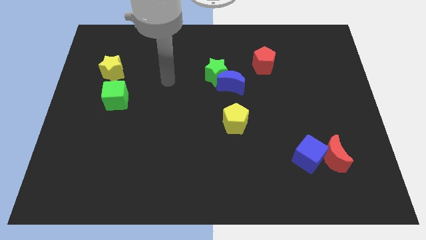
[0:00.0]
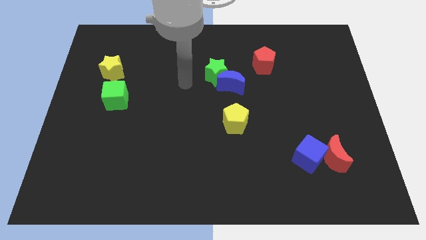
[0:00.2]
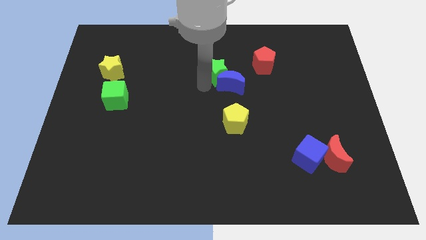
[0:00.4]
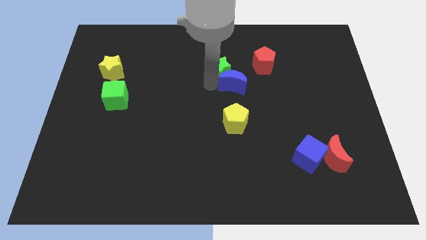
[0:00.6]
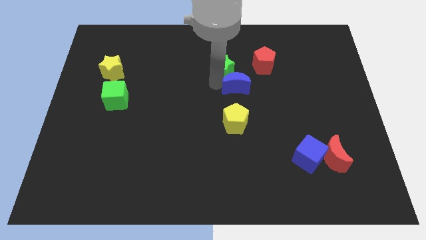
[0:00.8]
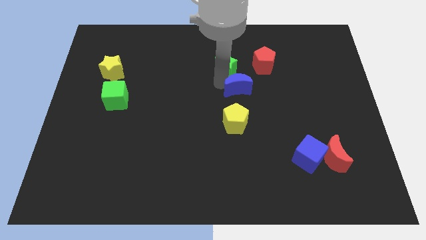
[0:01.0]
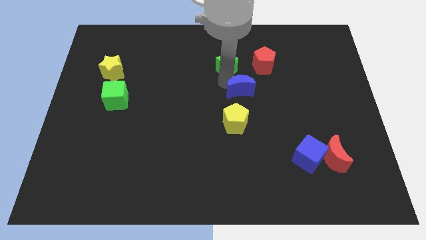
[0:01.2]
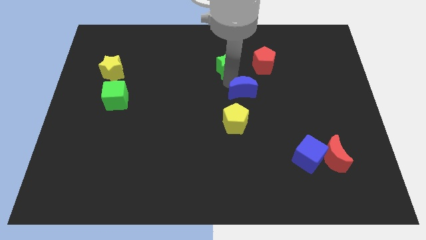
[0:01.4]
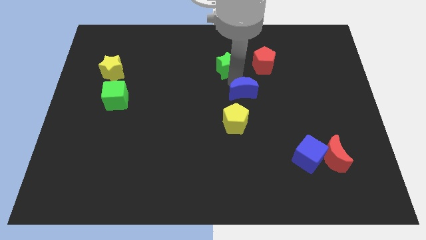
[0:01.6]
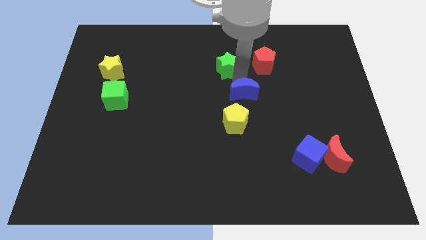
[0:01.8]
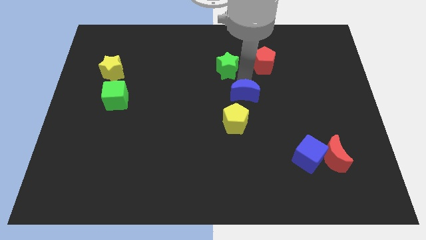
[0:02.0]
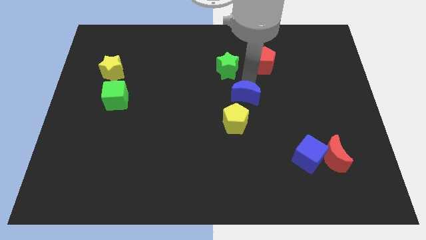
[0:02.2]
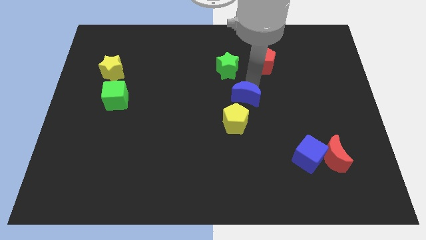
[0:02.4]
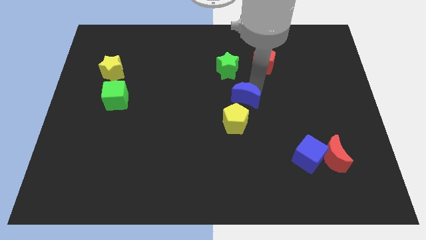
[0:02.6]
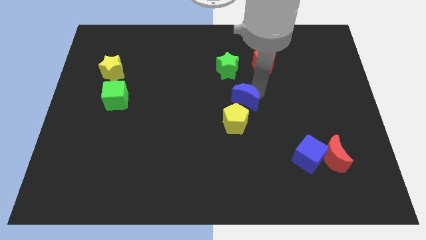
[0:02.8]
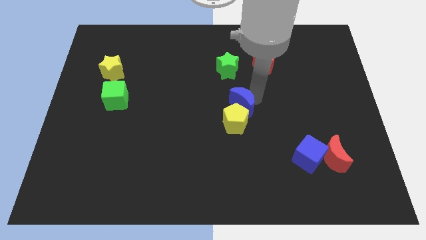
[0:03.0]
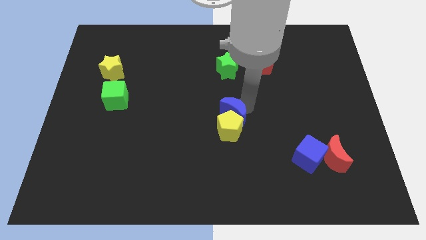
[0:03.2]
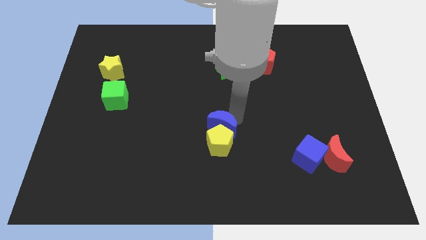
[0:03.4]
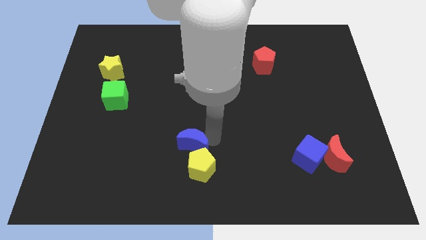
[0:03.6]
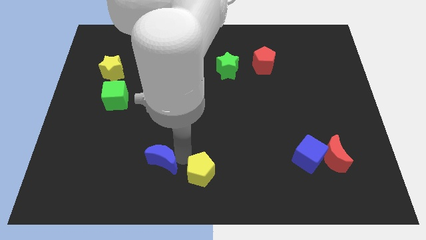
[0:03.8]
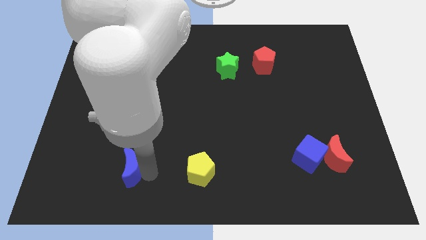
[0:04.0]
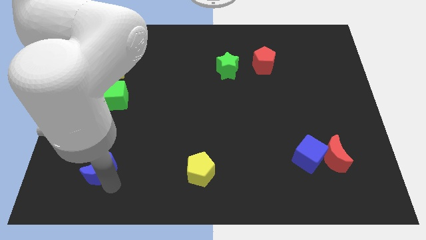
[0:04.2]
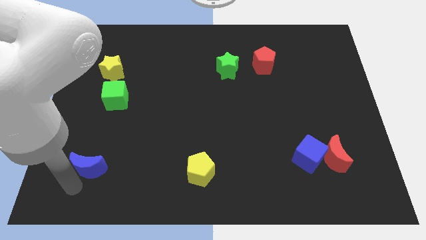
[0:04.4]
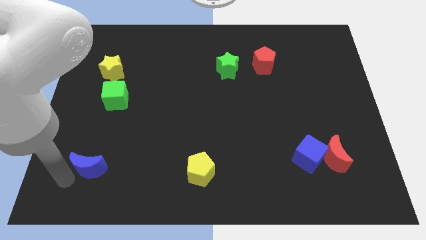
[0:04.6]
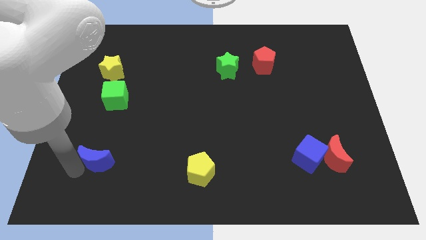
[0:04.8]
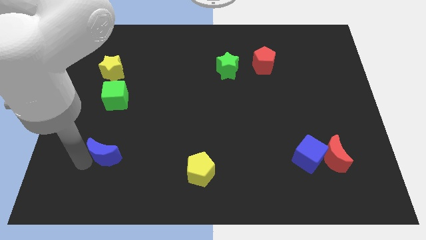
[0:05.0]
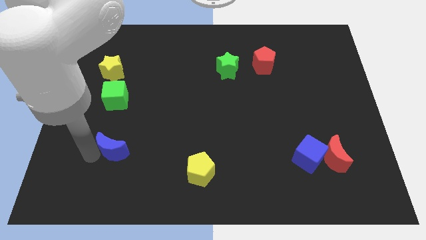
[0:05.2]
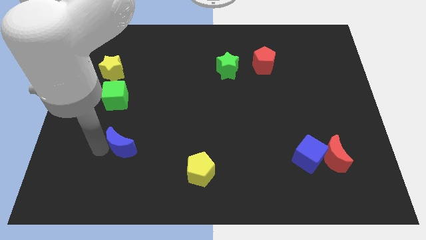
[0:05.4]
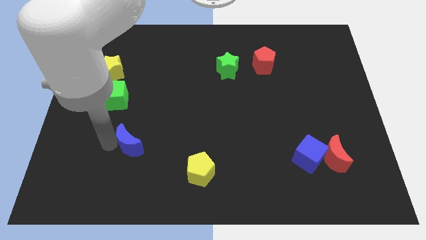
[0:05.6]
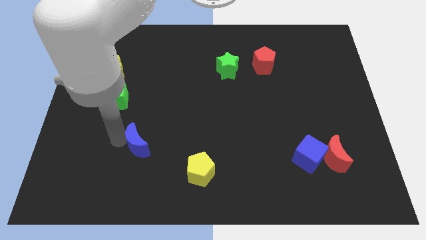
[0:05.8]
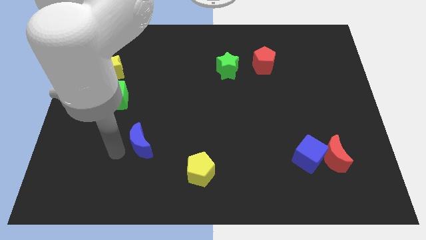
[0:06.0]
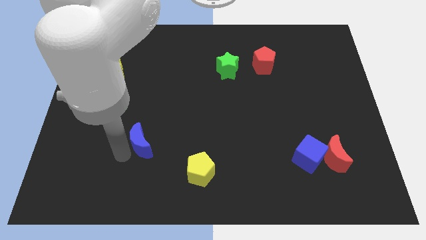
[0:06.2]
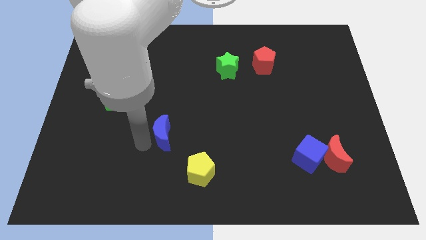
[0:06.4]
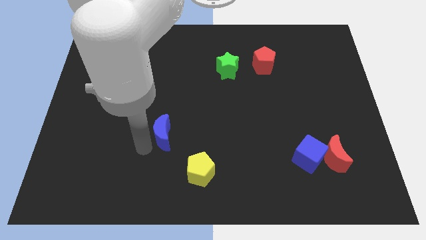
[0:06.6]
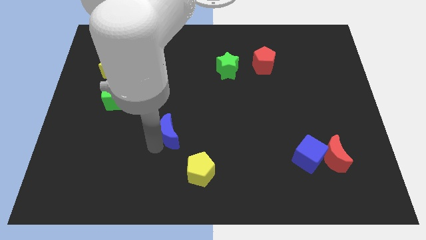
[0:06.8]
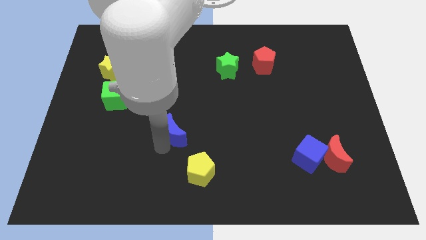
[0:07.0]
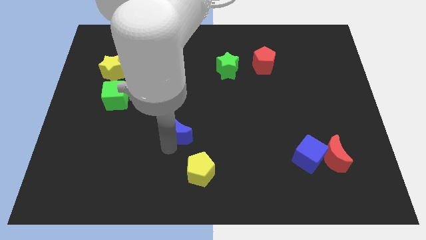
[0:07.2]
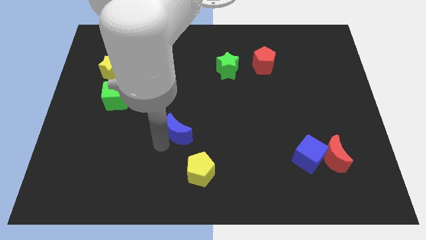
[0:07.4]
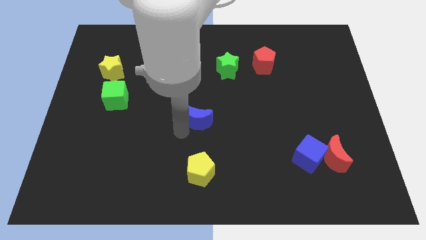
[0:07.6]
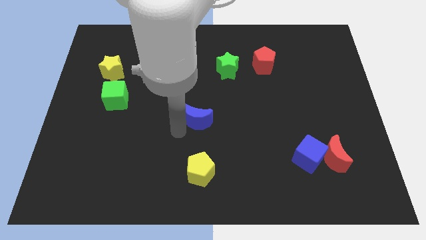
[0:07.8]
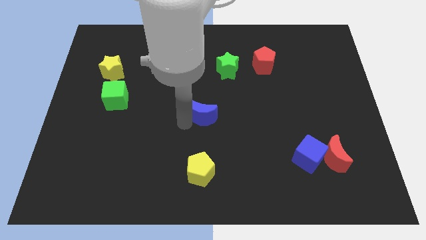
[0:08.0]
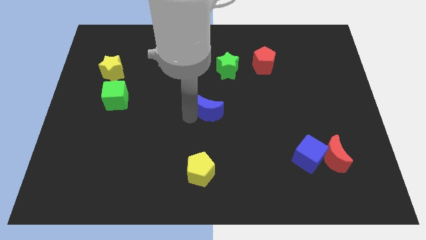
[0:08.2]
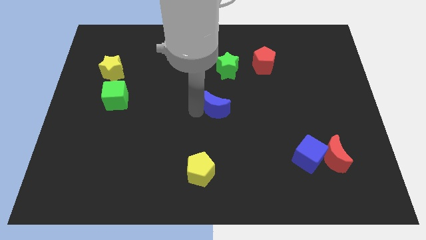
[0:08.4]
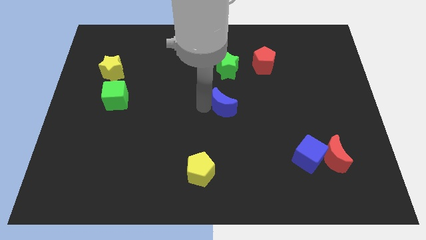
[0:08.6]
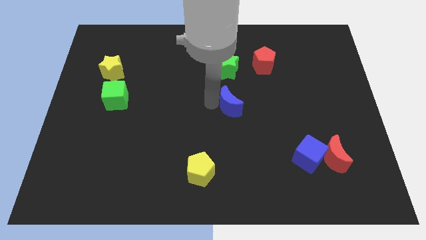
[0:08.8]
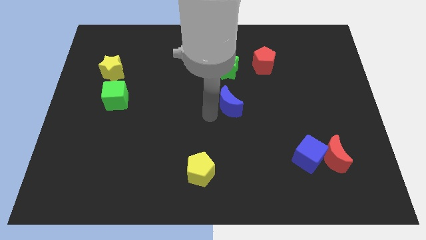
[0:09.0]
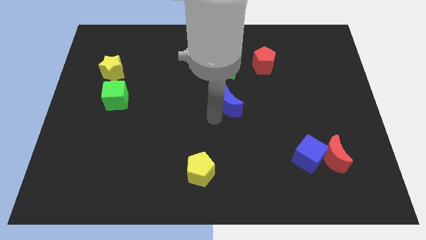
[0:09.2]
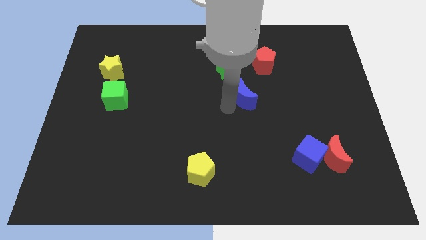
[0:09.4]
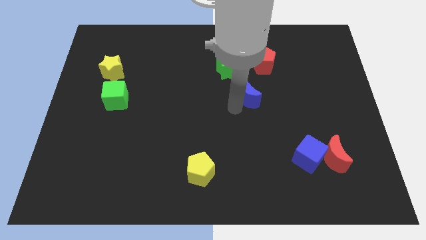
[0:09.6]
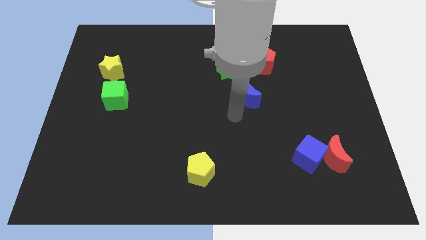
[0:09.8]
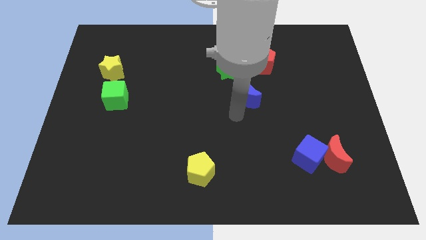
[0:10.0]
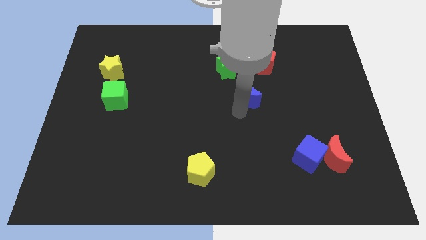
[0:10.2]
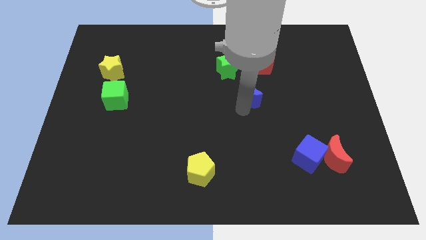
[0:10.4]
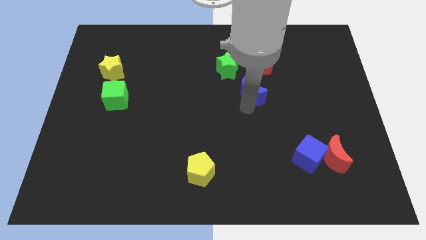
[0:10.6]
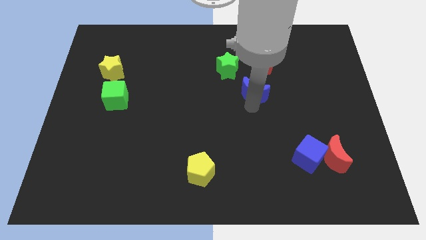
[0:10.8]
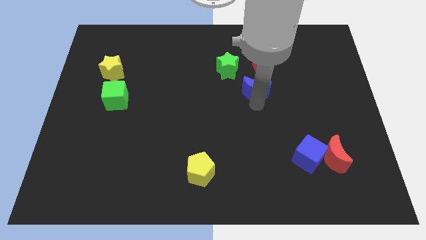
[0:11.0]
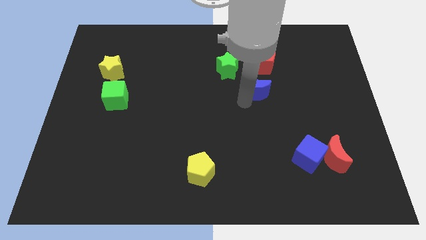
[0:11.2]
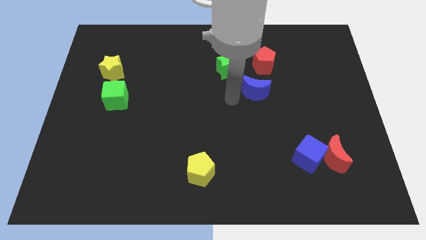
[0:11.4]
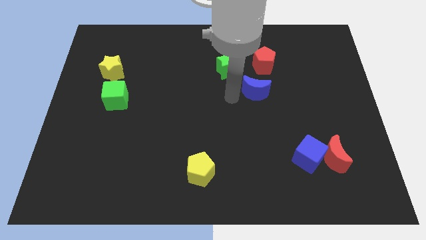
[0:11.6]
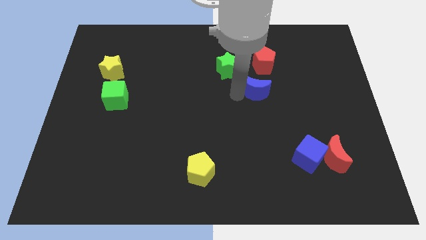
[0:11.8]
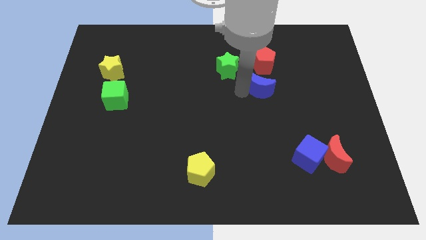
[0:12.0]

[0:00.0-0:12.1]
slightly move the blue moon to the right

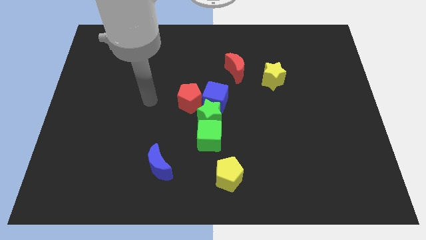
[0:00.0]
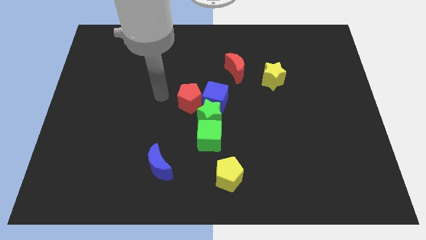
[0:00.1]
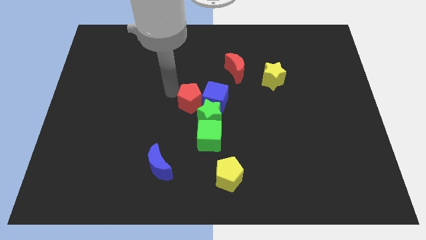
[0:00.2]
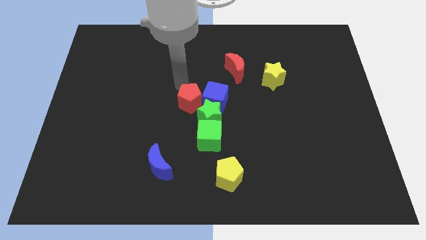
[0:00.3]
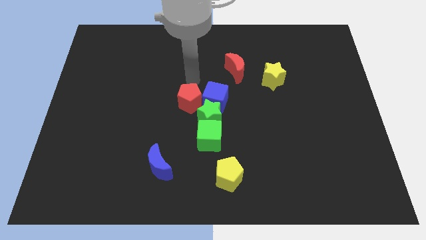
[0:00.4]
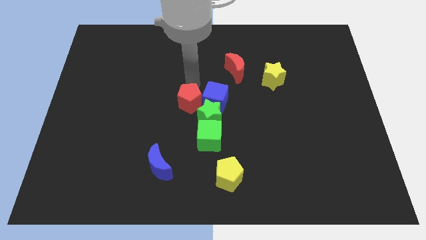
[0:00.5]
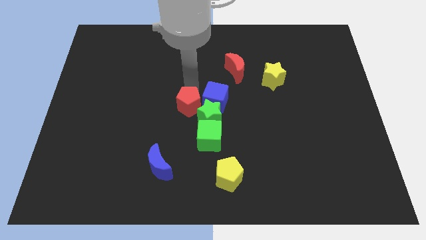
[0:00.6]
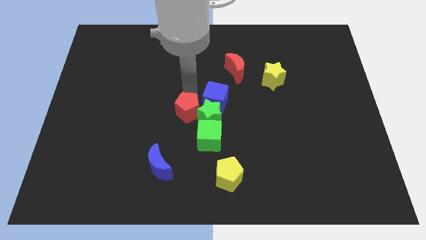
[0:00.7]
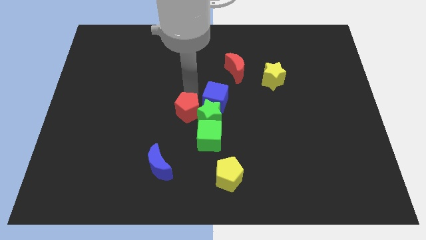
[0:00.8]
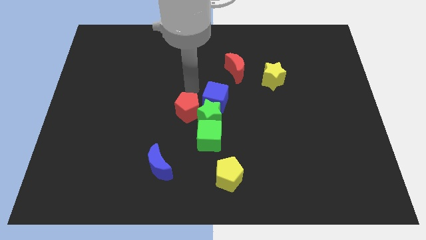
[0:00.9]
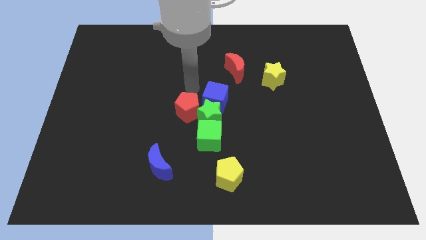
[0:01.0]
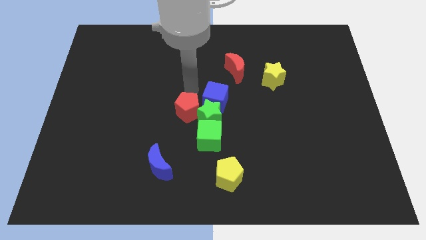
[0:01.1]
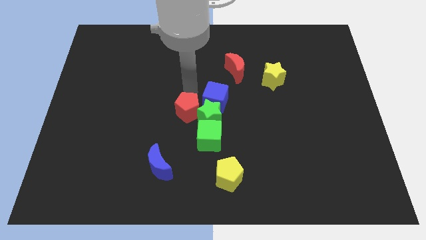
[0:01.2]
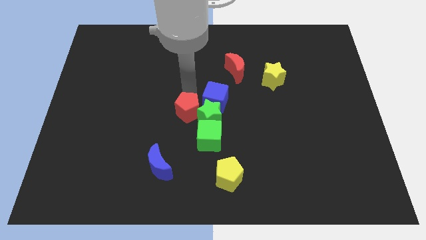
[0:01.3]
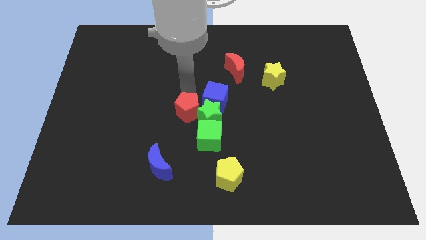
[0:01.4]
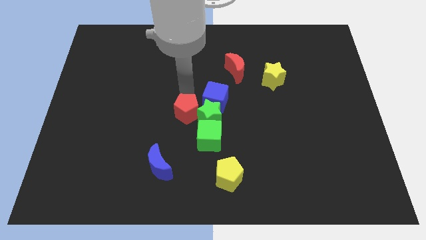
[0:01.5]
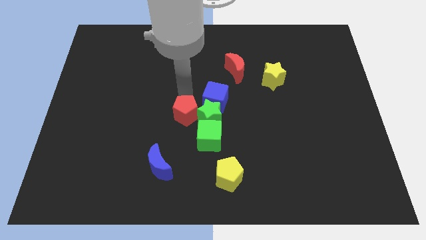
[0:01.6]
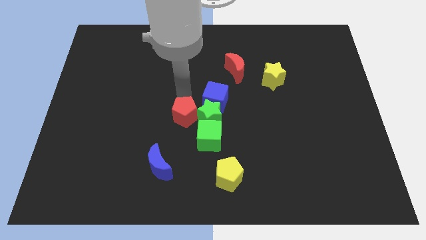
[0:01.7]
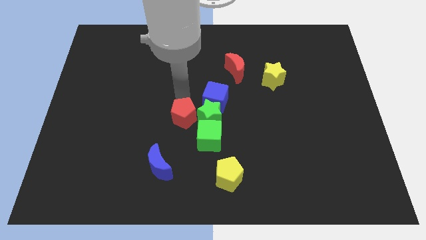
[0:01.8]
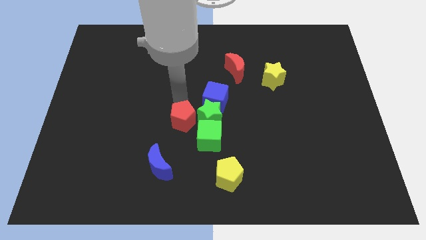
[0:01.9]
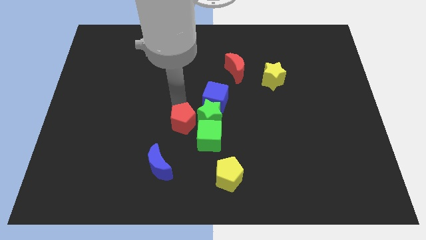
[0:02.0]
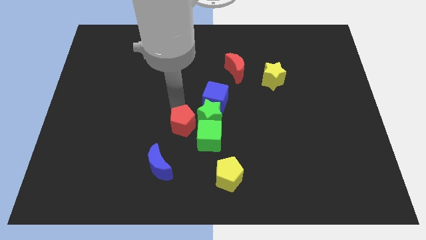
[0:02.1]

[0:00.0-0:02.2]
move the red pentagon downwards somewhat
